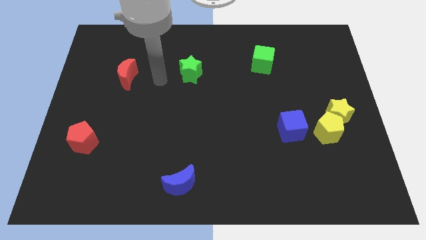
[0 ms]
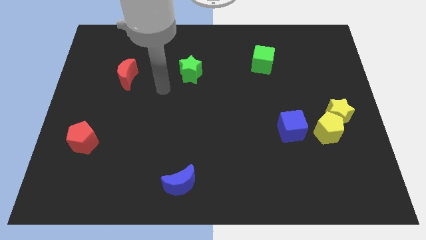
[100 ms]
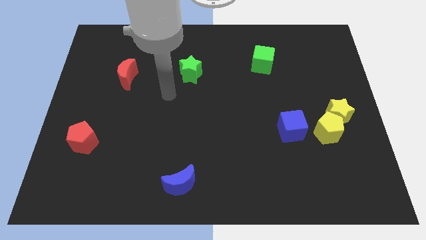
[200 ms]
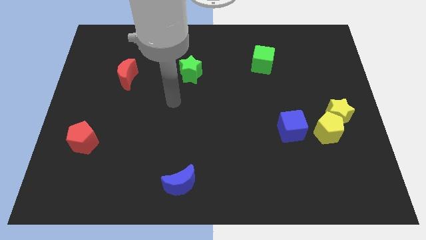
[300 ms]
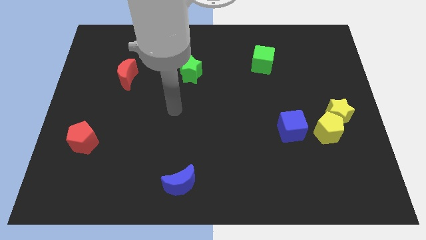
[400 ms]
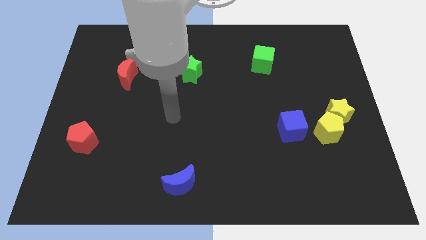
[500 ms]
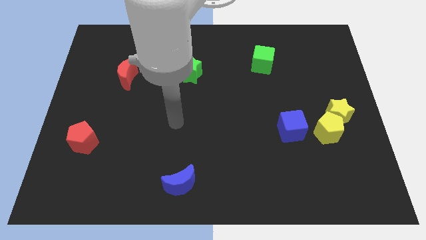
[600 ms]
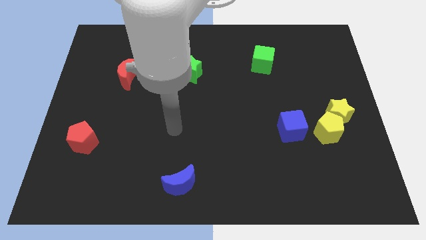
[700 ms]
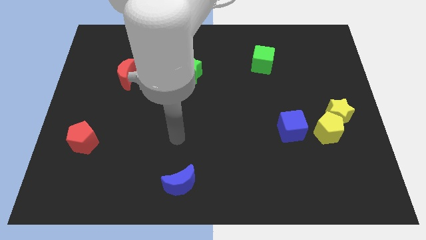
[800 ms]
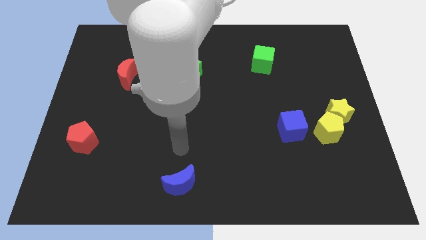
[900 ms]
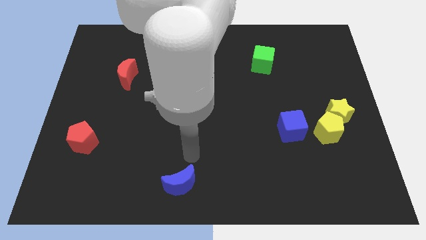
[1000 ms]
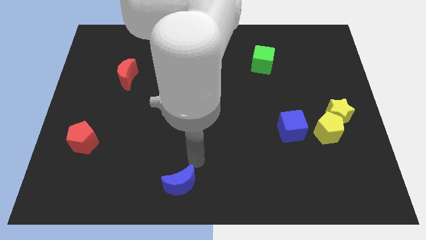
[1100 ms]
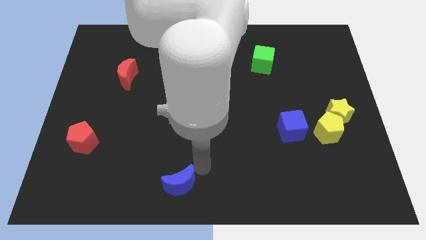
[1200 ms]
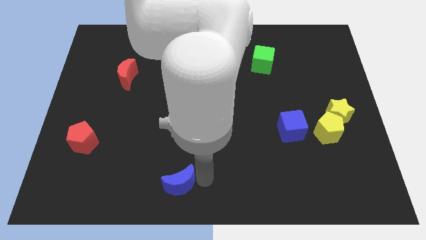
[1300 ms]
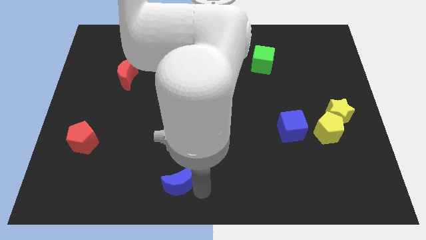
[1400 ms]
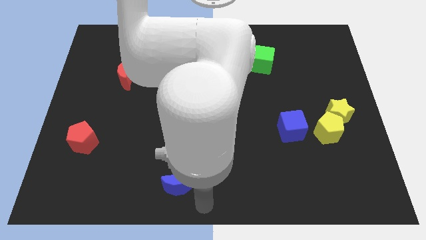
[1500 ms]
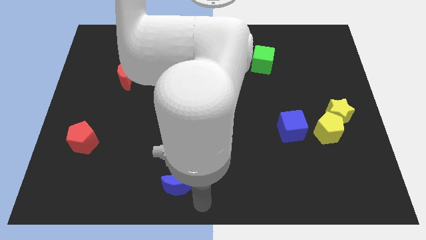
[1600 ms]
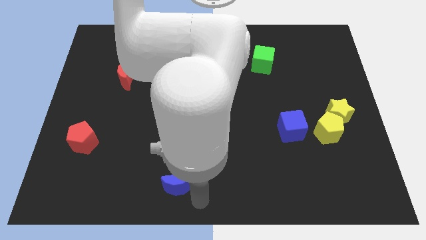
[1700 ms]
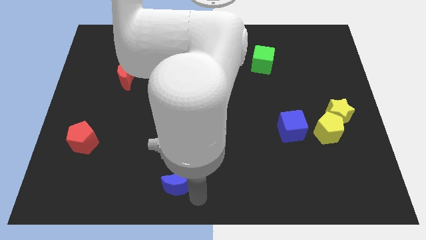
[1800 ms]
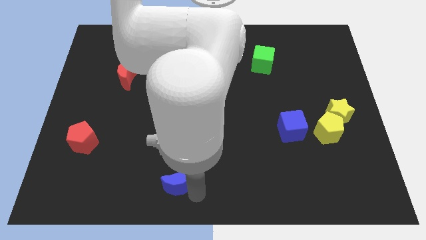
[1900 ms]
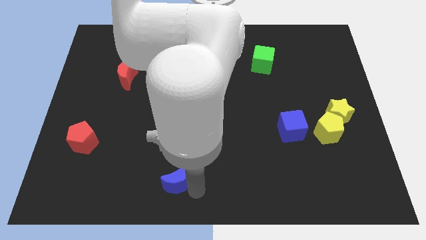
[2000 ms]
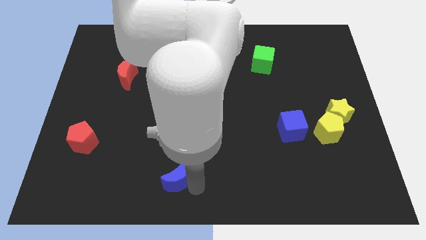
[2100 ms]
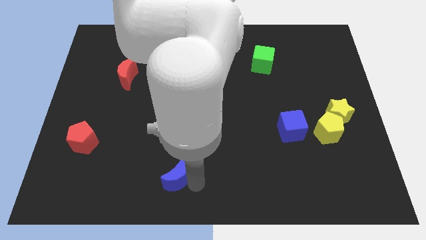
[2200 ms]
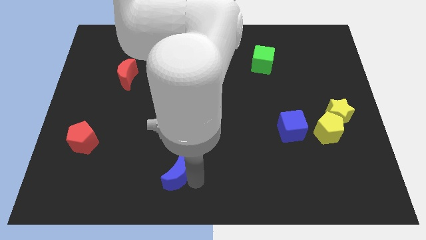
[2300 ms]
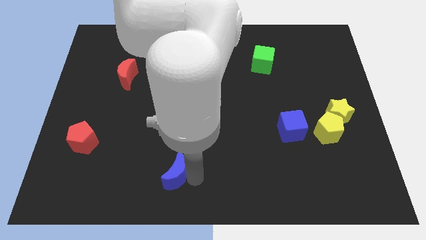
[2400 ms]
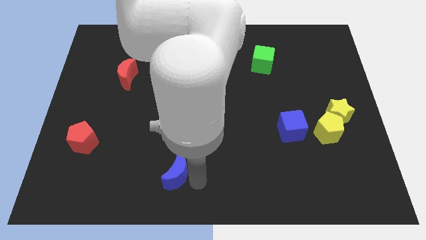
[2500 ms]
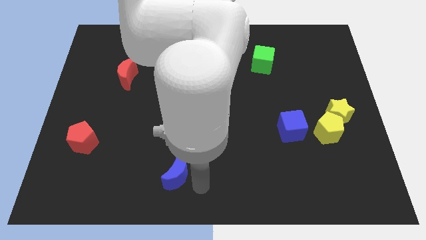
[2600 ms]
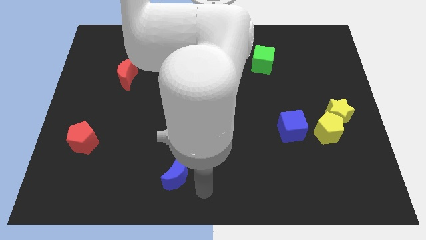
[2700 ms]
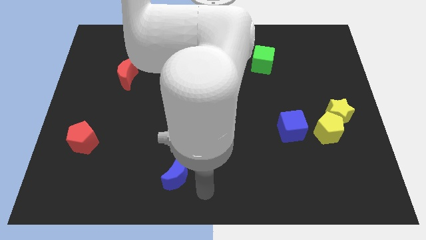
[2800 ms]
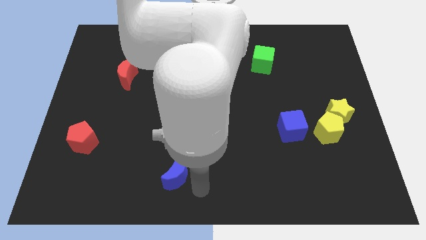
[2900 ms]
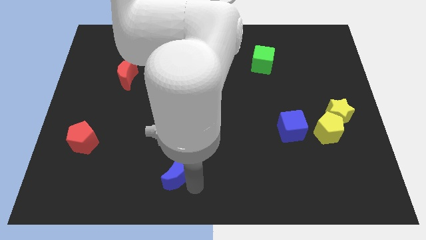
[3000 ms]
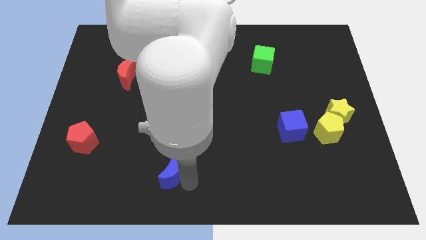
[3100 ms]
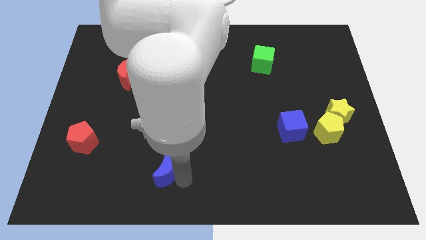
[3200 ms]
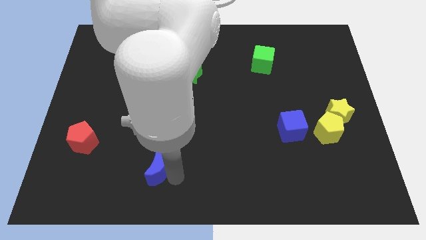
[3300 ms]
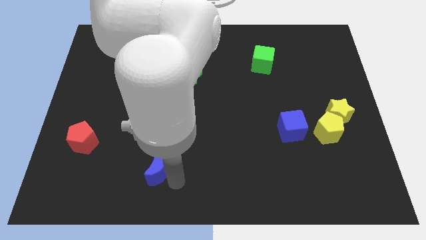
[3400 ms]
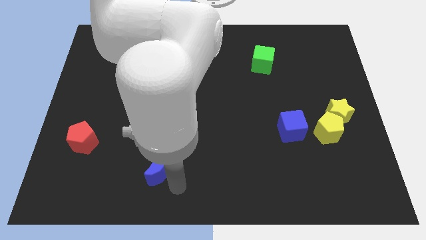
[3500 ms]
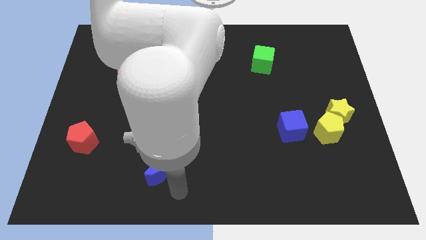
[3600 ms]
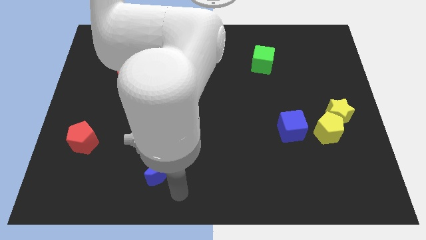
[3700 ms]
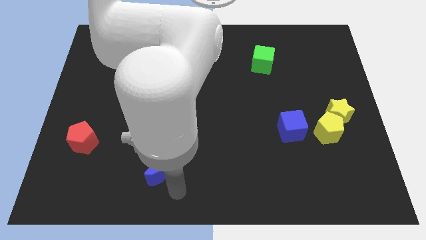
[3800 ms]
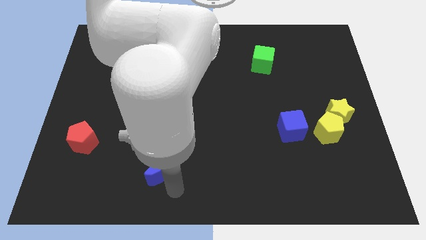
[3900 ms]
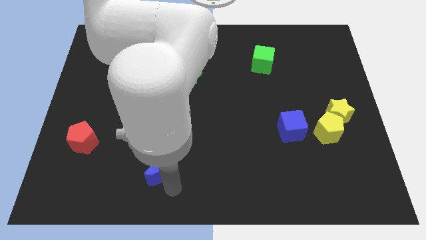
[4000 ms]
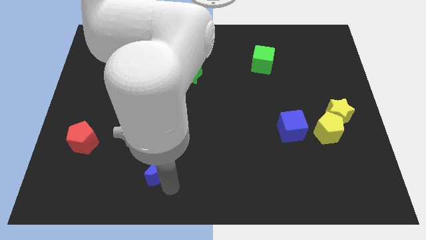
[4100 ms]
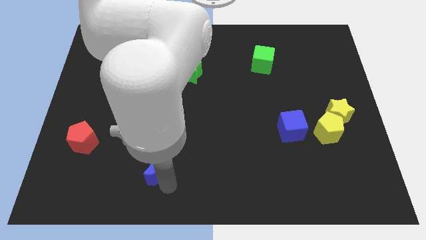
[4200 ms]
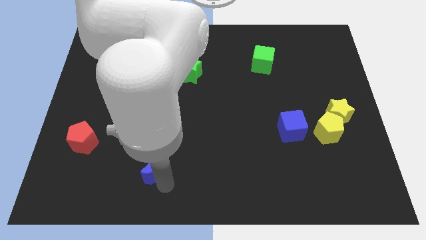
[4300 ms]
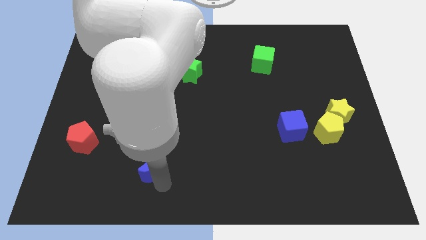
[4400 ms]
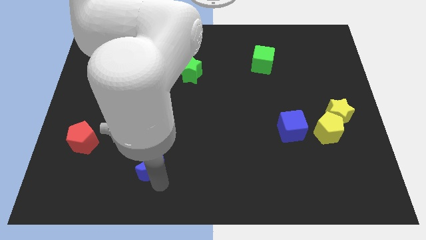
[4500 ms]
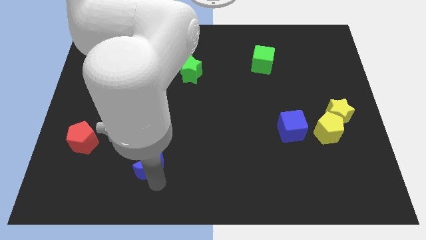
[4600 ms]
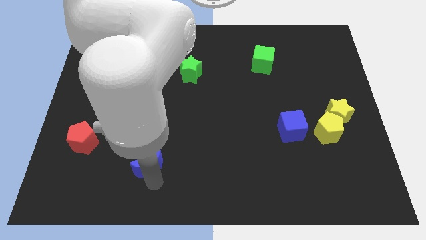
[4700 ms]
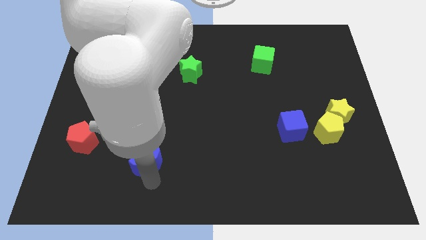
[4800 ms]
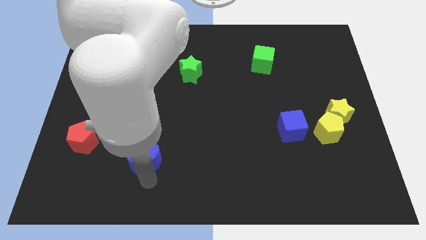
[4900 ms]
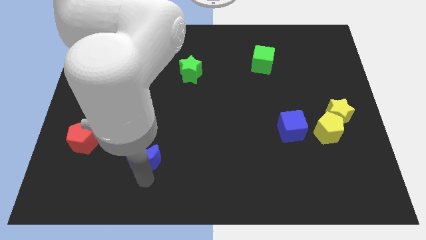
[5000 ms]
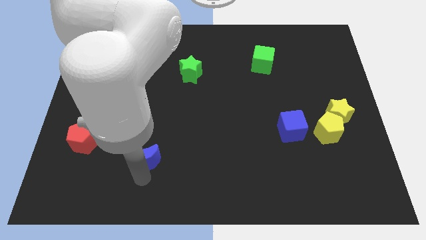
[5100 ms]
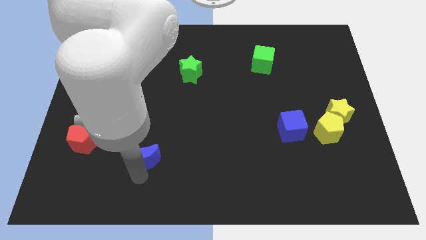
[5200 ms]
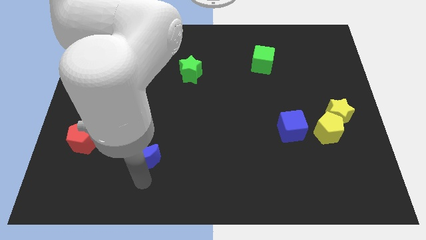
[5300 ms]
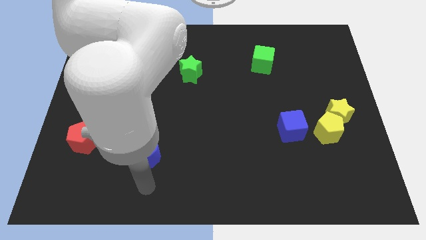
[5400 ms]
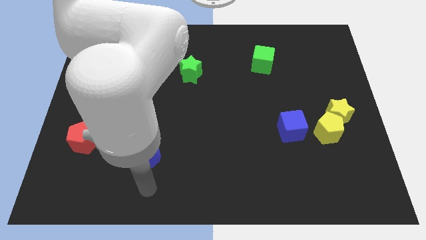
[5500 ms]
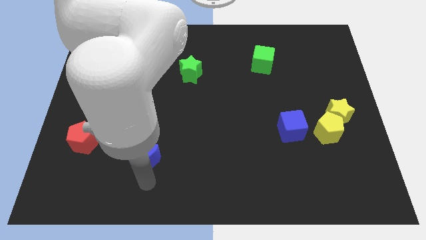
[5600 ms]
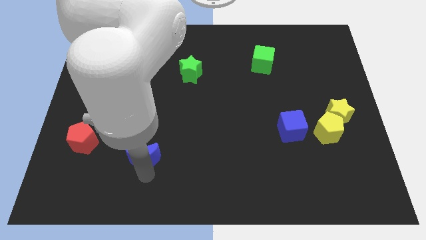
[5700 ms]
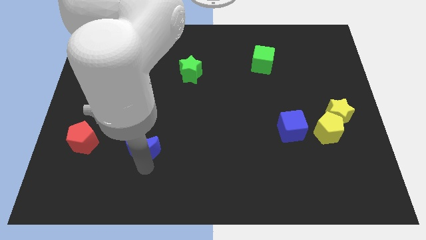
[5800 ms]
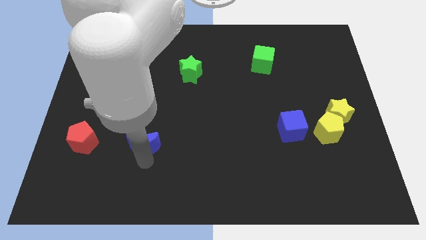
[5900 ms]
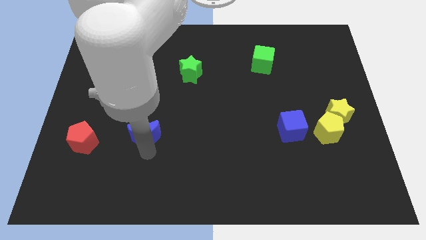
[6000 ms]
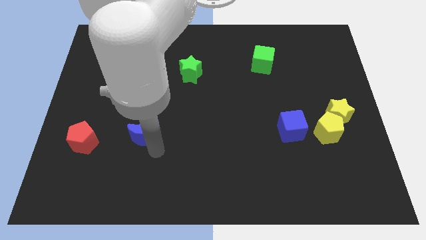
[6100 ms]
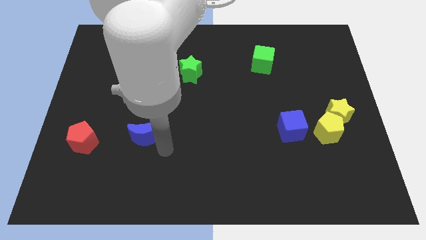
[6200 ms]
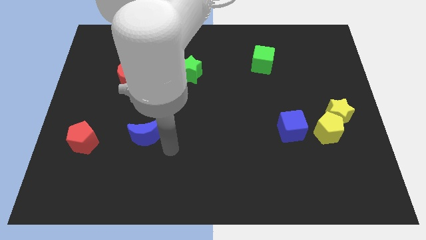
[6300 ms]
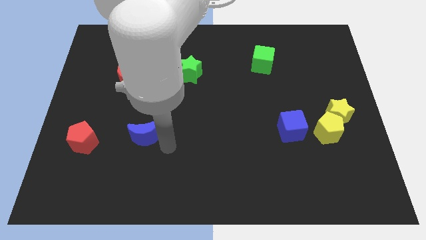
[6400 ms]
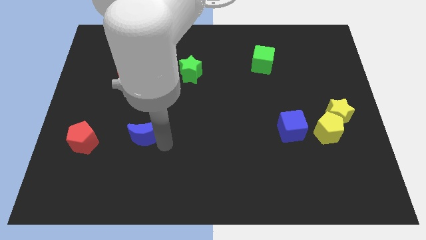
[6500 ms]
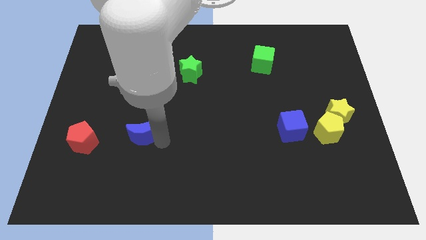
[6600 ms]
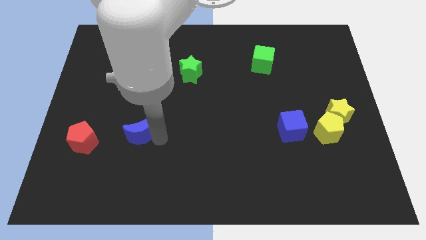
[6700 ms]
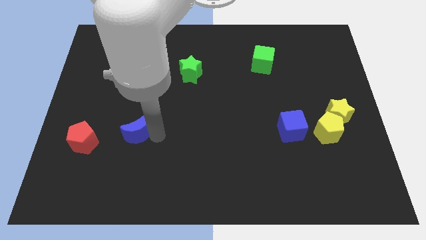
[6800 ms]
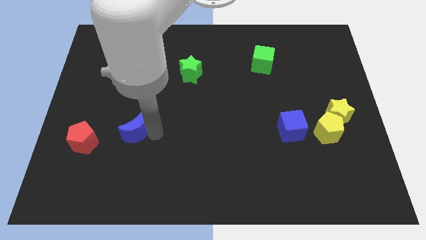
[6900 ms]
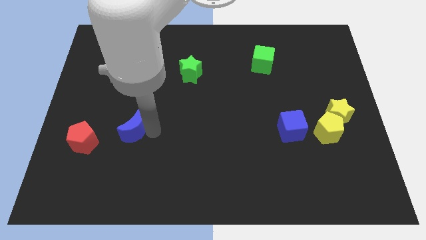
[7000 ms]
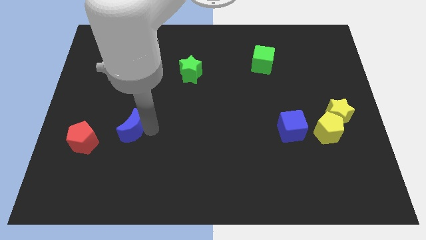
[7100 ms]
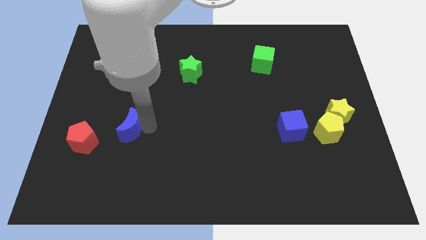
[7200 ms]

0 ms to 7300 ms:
move the blue moon diagonally up and to the right of the red pentagon
